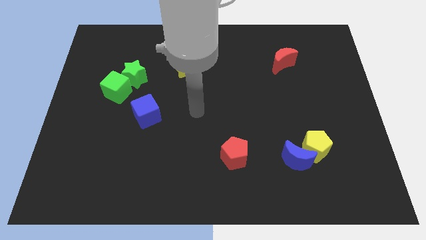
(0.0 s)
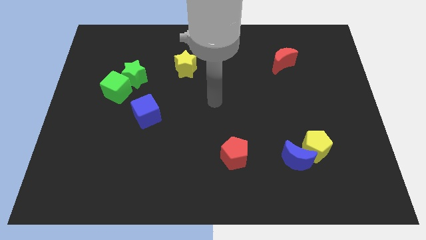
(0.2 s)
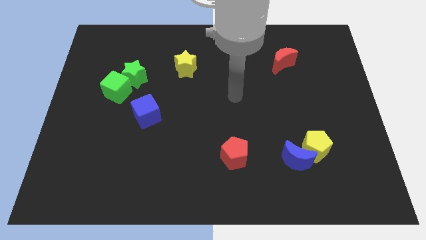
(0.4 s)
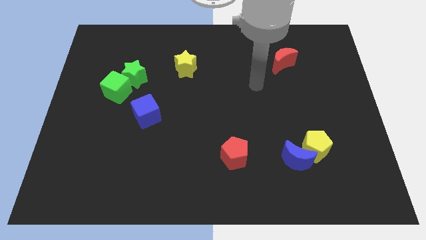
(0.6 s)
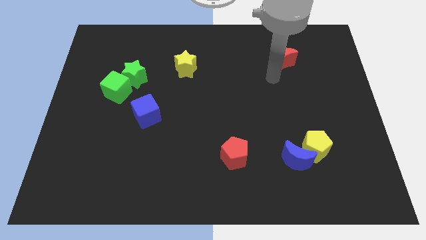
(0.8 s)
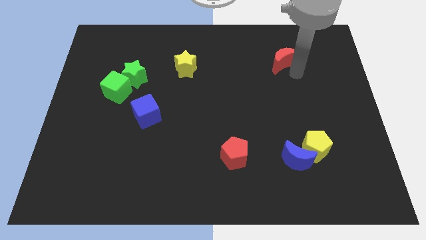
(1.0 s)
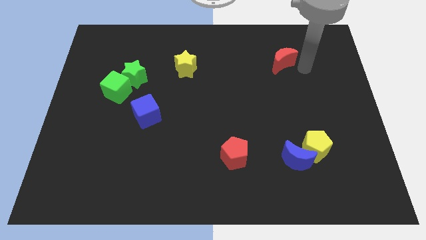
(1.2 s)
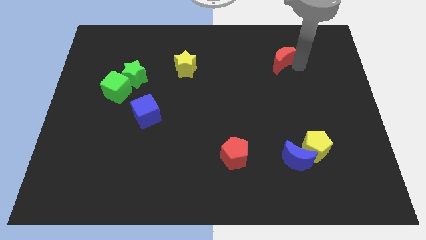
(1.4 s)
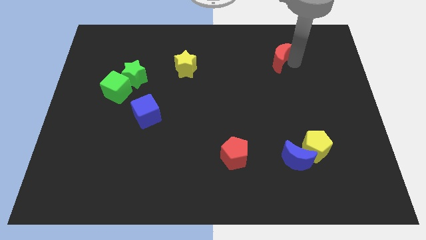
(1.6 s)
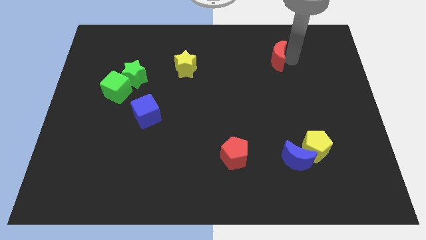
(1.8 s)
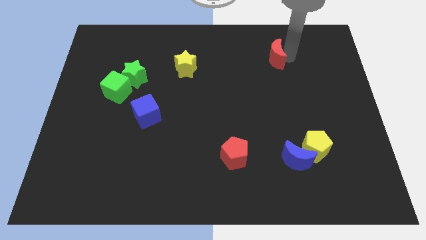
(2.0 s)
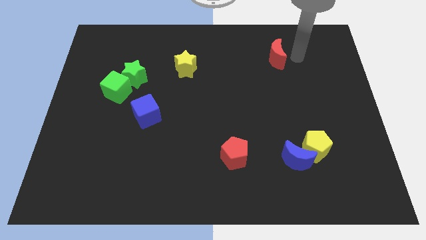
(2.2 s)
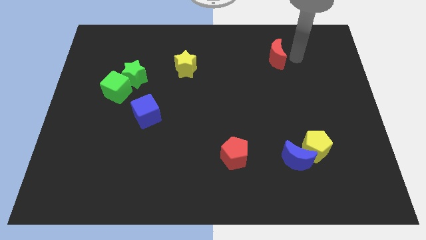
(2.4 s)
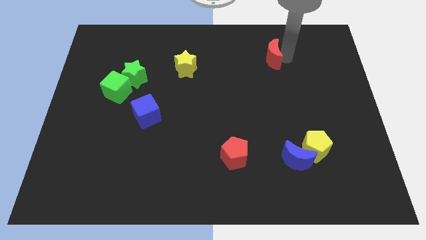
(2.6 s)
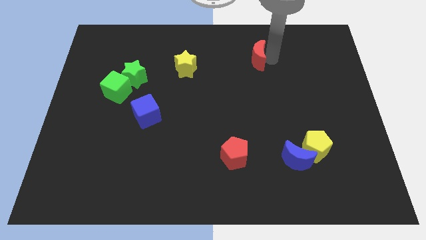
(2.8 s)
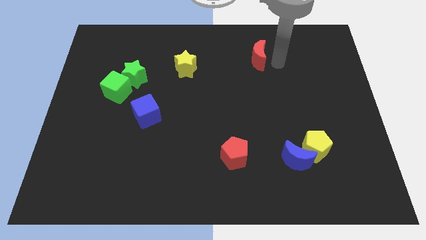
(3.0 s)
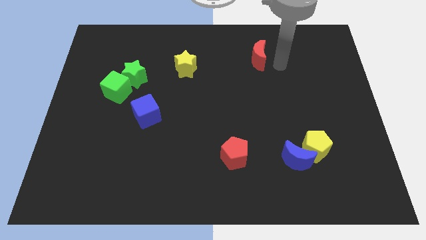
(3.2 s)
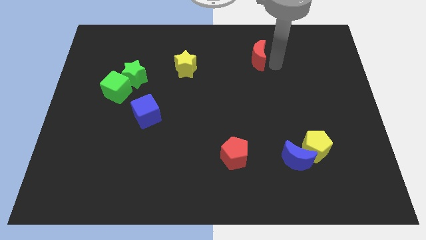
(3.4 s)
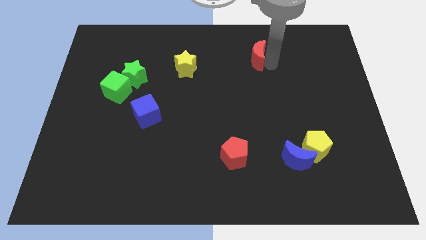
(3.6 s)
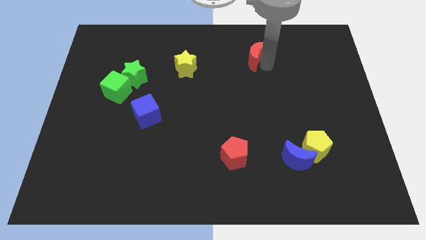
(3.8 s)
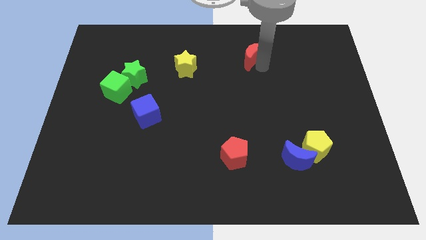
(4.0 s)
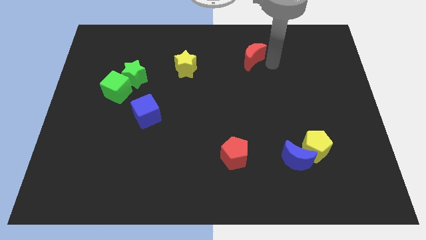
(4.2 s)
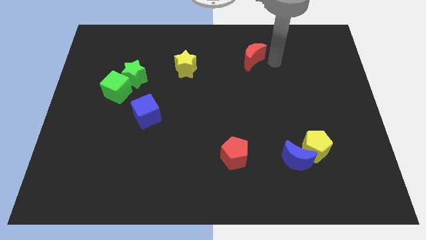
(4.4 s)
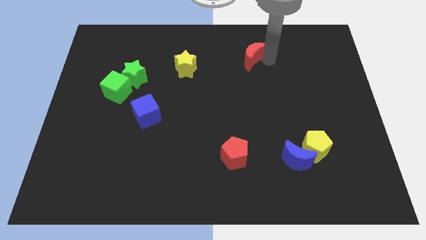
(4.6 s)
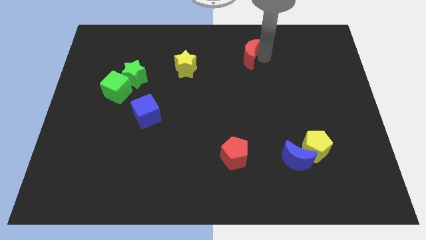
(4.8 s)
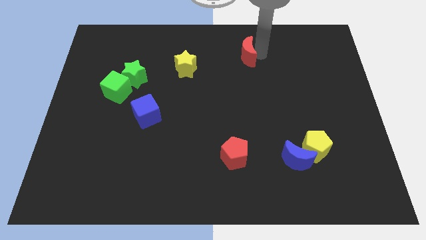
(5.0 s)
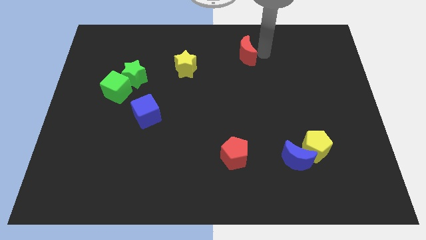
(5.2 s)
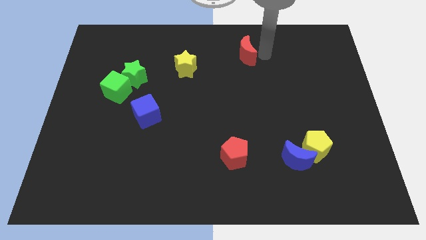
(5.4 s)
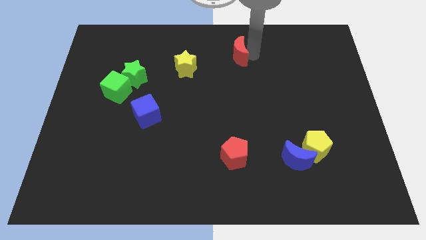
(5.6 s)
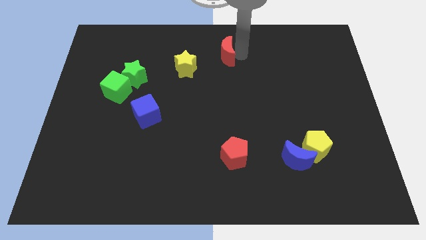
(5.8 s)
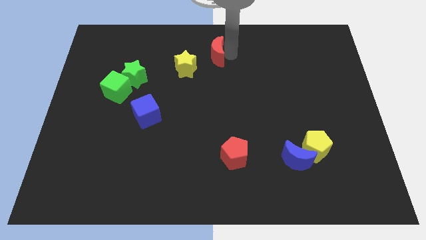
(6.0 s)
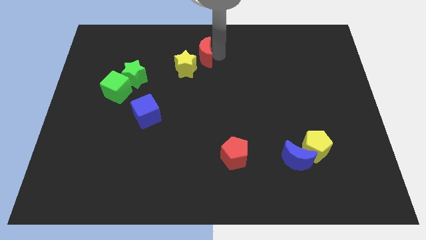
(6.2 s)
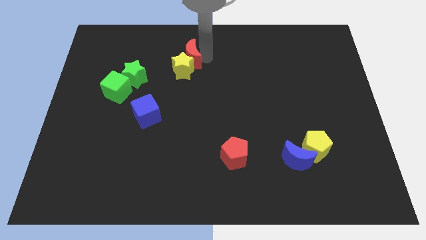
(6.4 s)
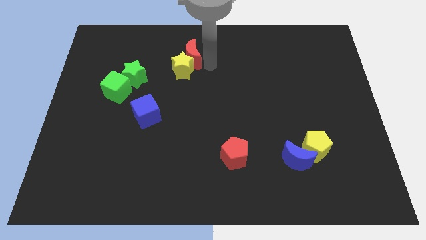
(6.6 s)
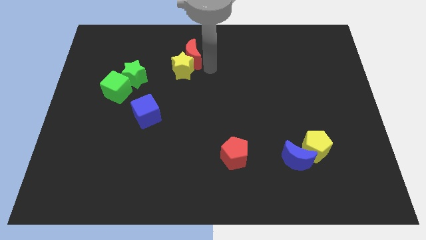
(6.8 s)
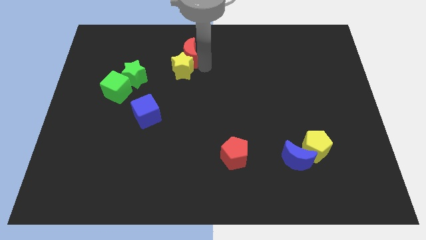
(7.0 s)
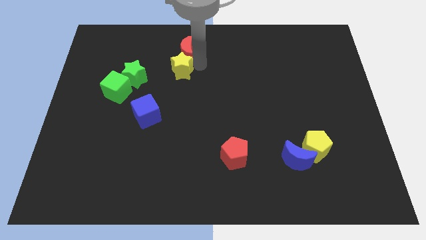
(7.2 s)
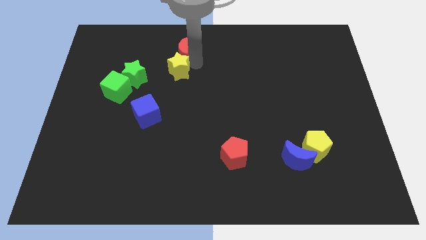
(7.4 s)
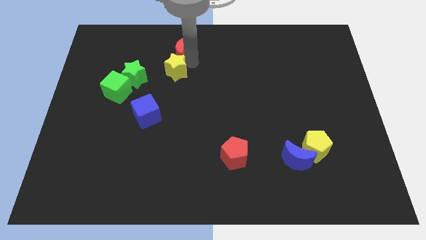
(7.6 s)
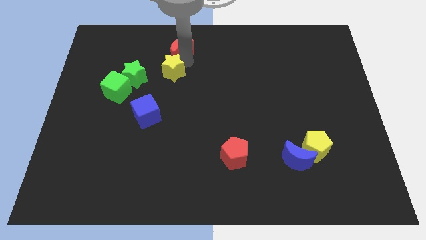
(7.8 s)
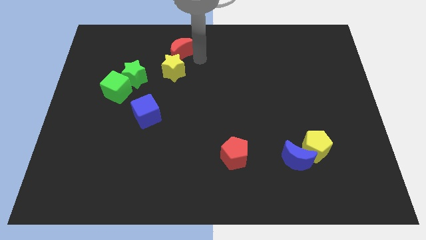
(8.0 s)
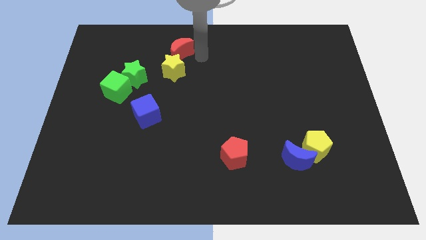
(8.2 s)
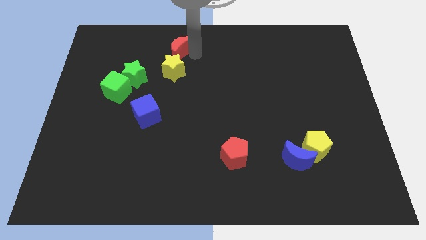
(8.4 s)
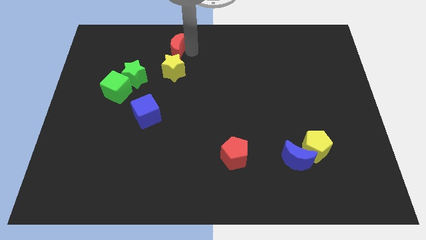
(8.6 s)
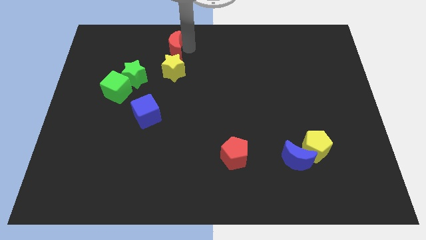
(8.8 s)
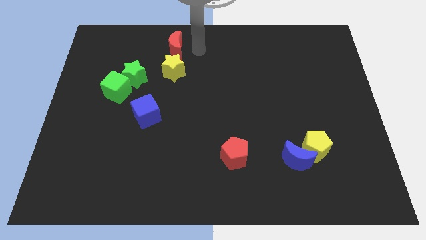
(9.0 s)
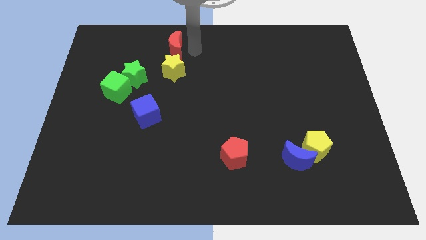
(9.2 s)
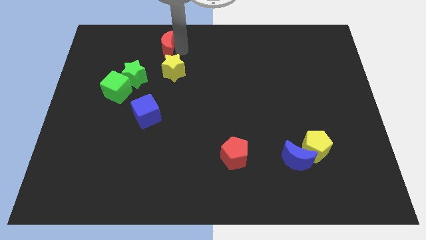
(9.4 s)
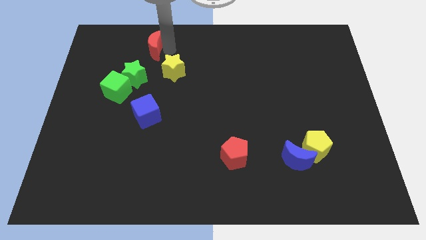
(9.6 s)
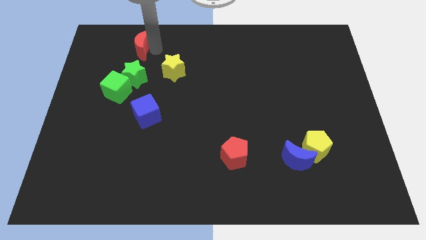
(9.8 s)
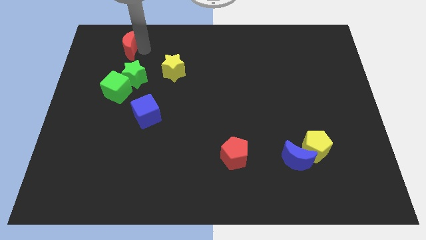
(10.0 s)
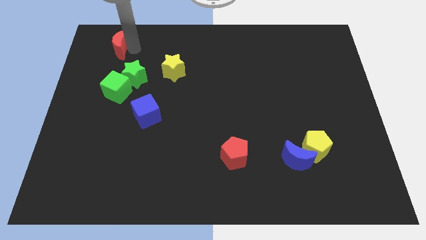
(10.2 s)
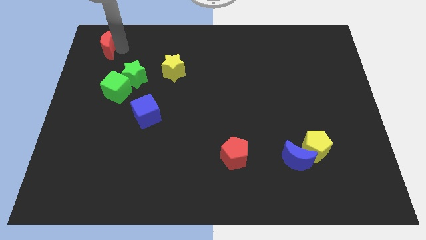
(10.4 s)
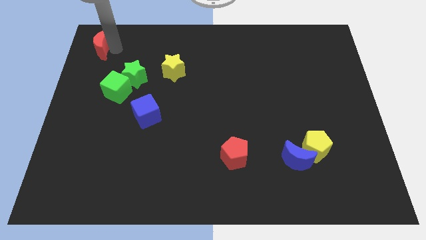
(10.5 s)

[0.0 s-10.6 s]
move the red moon to the upper left corner

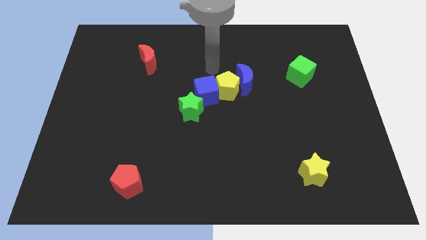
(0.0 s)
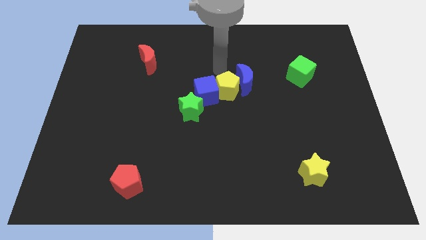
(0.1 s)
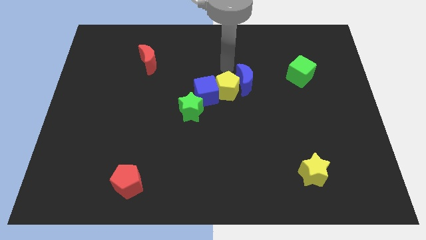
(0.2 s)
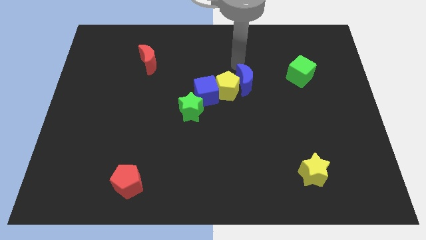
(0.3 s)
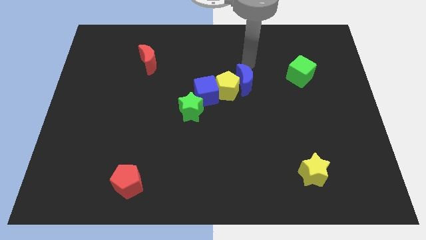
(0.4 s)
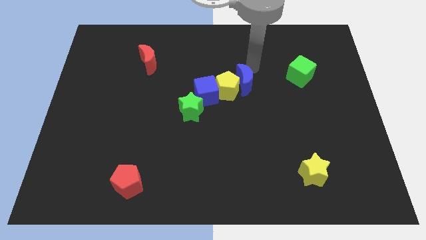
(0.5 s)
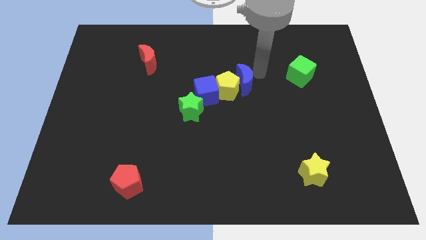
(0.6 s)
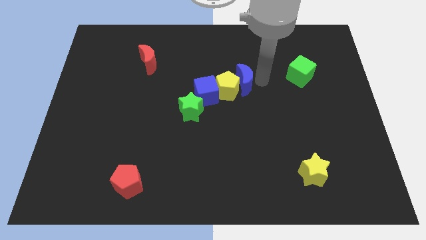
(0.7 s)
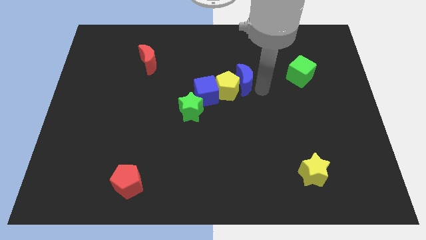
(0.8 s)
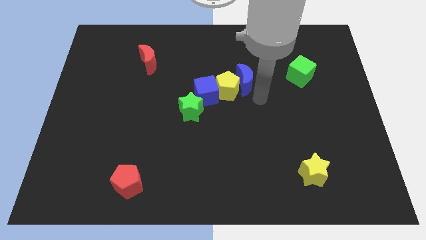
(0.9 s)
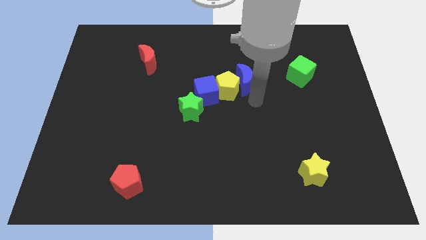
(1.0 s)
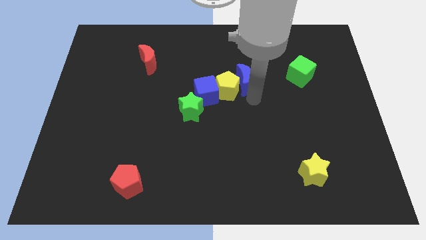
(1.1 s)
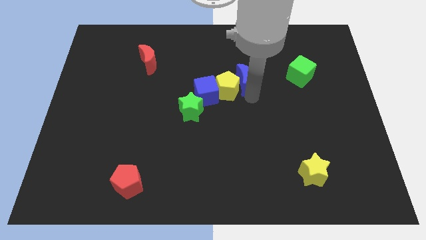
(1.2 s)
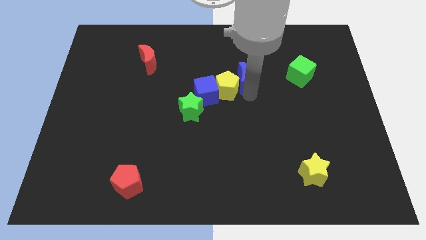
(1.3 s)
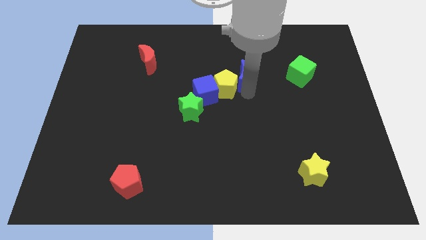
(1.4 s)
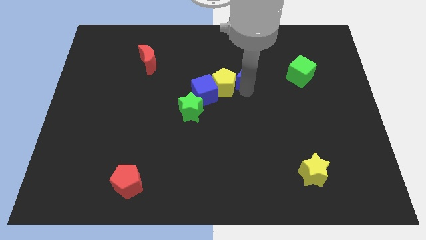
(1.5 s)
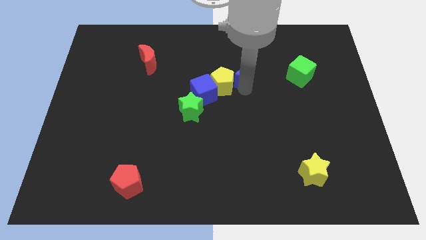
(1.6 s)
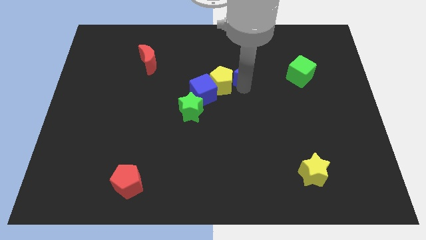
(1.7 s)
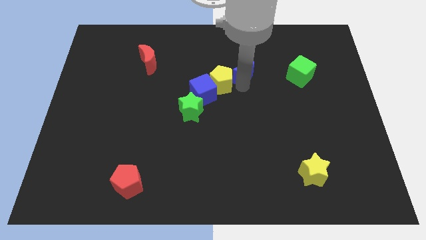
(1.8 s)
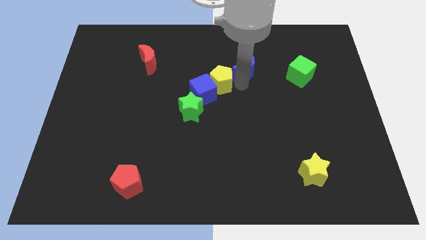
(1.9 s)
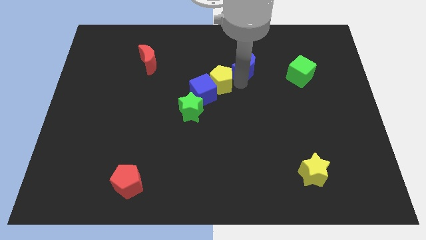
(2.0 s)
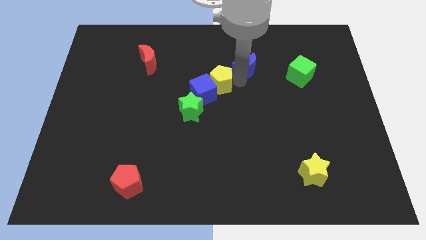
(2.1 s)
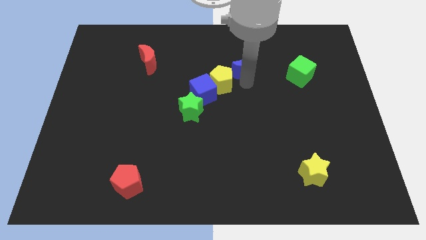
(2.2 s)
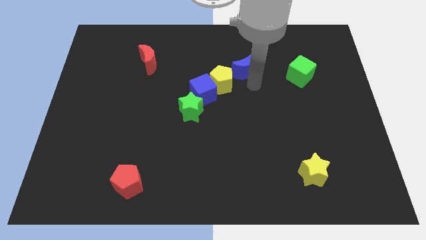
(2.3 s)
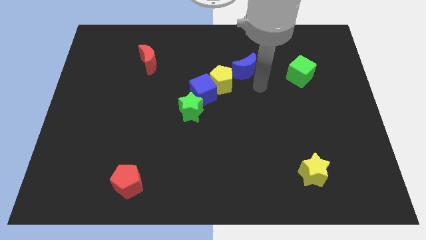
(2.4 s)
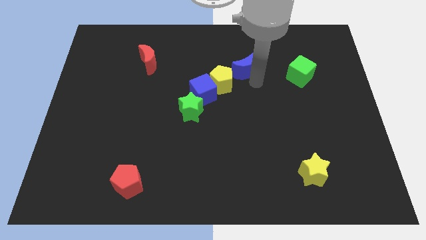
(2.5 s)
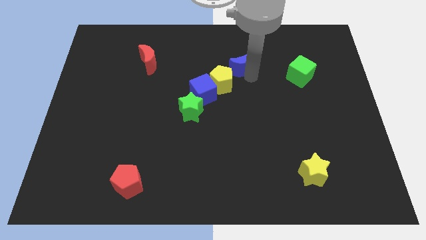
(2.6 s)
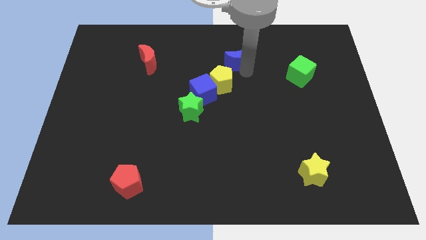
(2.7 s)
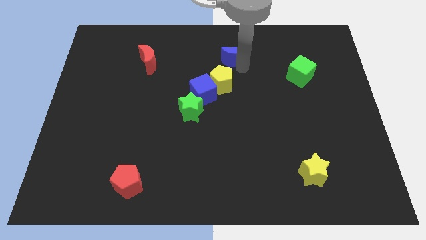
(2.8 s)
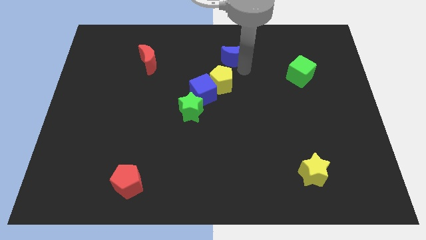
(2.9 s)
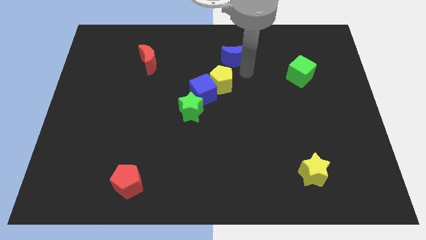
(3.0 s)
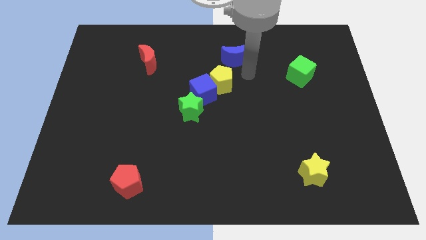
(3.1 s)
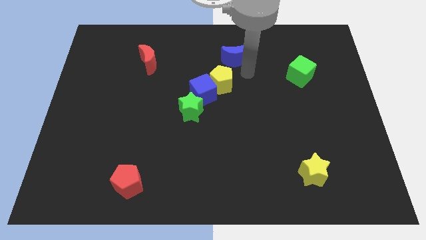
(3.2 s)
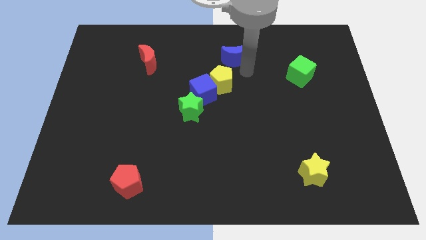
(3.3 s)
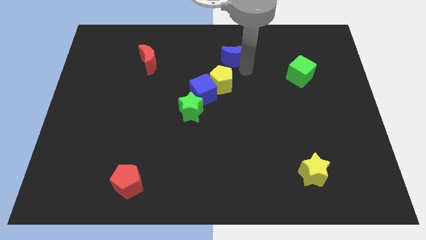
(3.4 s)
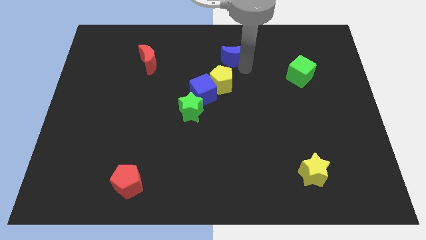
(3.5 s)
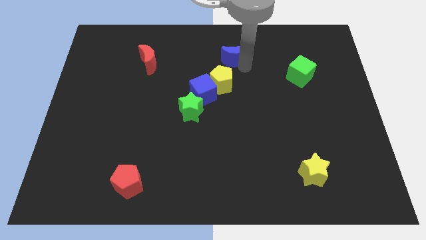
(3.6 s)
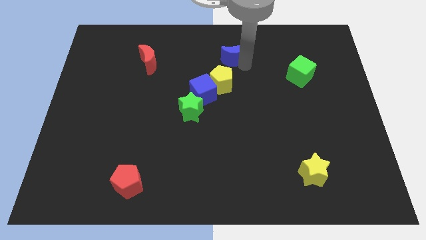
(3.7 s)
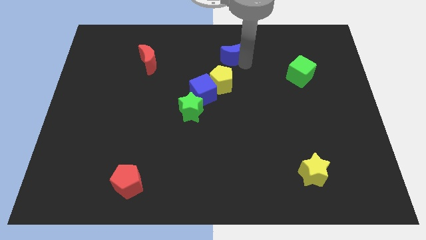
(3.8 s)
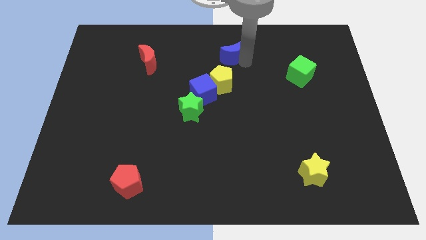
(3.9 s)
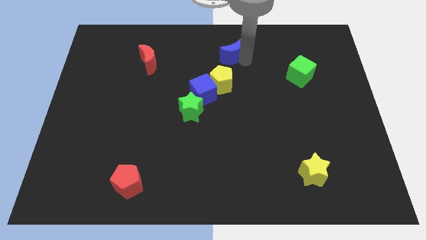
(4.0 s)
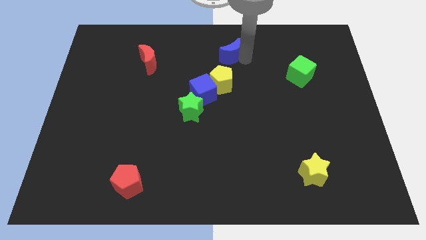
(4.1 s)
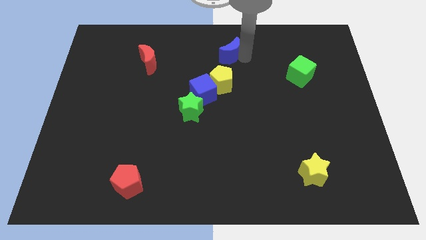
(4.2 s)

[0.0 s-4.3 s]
slide the blue moon to the towards your base
